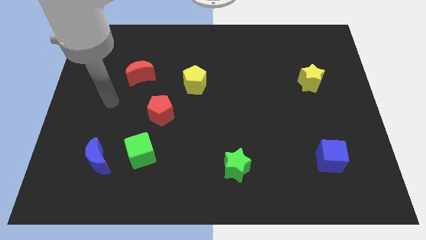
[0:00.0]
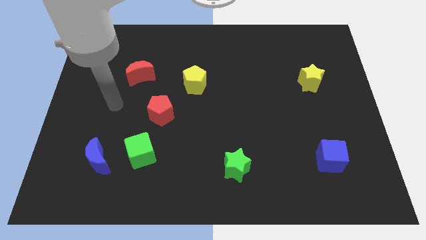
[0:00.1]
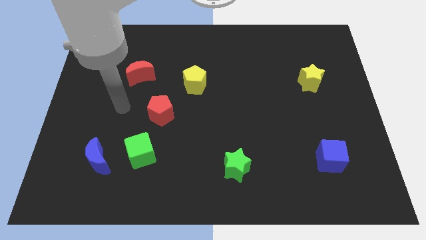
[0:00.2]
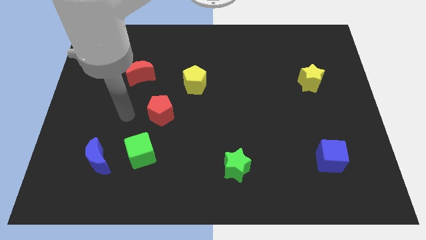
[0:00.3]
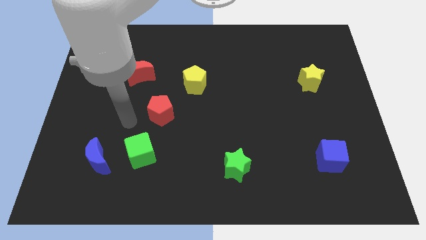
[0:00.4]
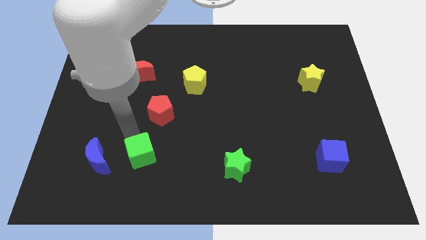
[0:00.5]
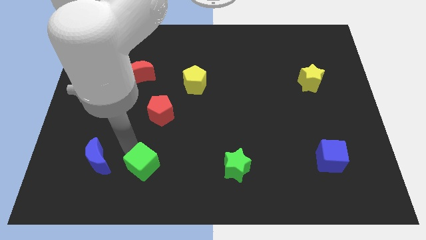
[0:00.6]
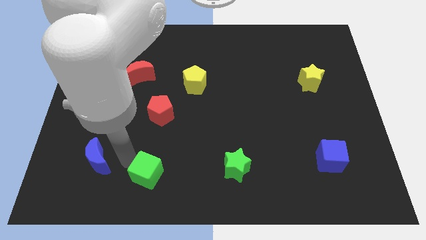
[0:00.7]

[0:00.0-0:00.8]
pull the blue moon apart from the green cube

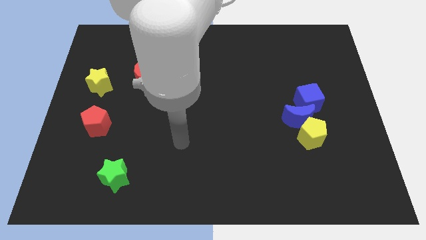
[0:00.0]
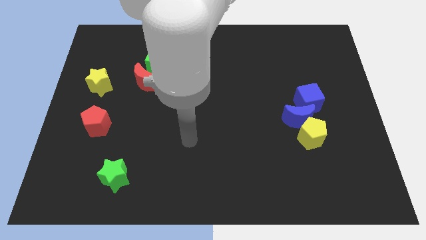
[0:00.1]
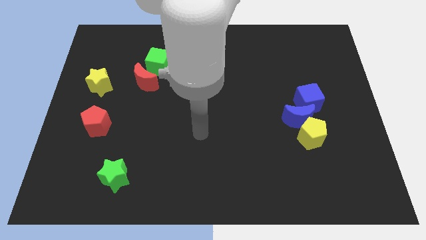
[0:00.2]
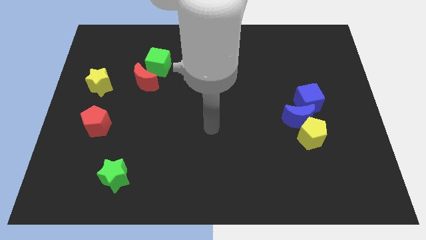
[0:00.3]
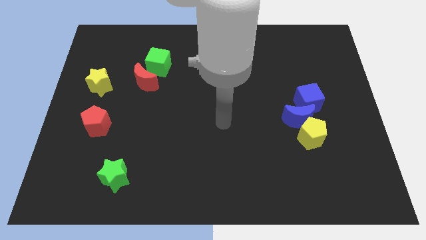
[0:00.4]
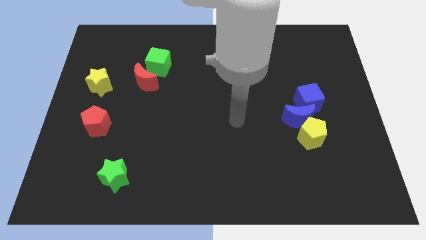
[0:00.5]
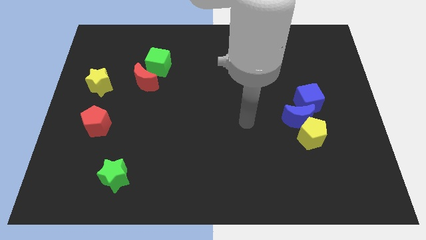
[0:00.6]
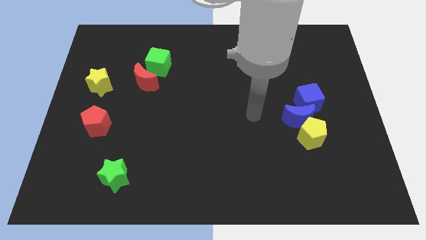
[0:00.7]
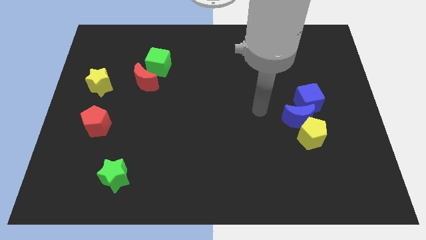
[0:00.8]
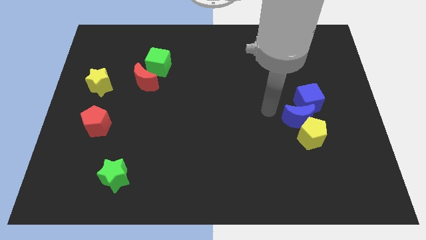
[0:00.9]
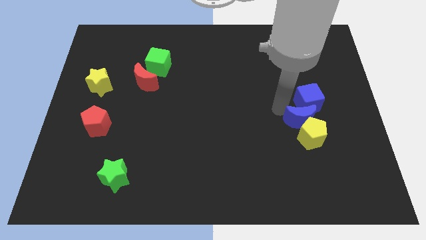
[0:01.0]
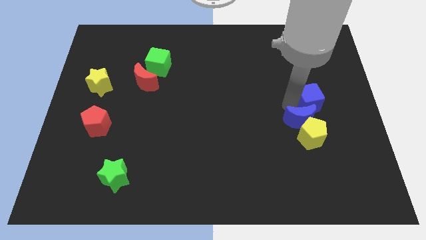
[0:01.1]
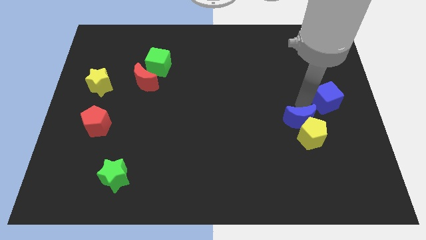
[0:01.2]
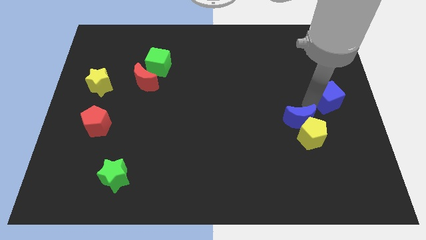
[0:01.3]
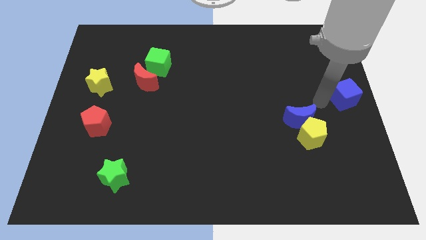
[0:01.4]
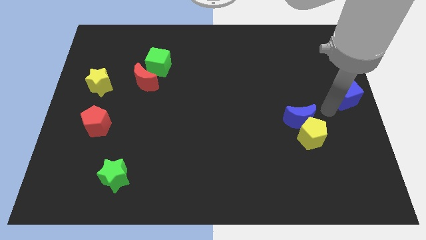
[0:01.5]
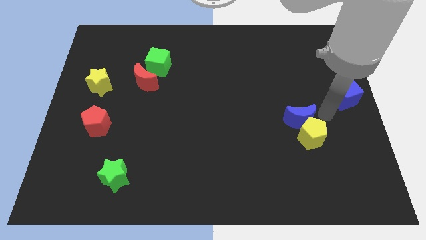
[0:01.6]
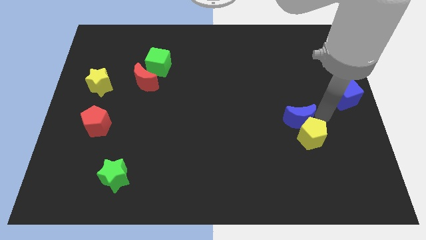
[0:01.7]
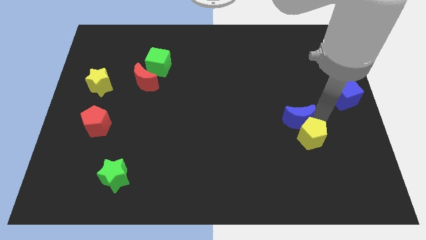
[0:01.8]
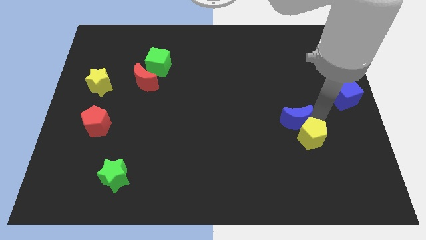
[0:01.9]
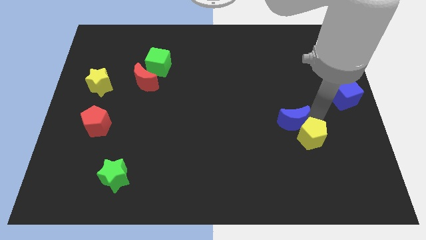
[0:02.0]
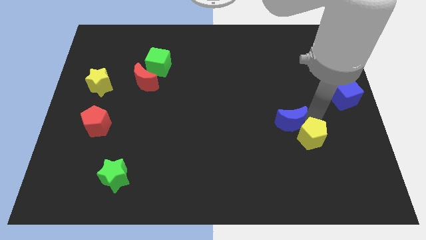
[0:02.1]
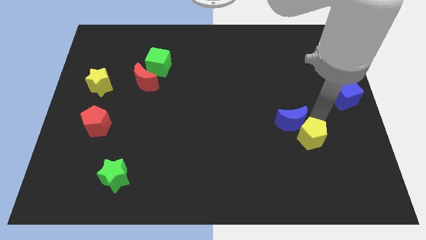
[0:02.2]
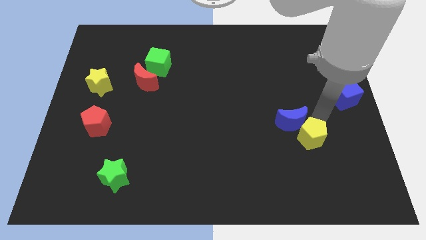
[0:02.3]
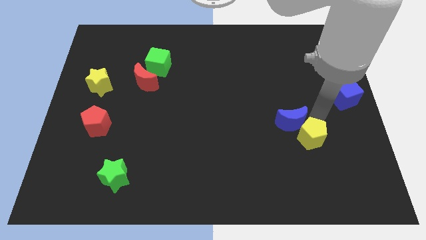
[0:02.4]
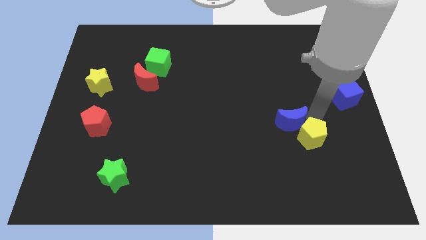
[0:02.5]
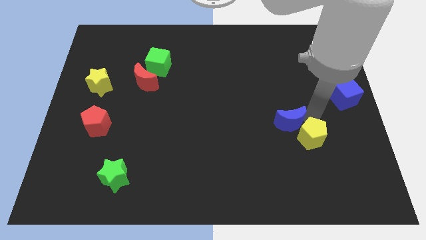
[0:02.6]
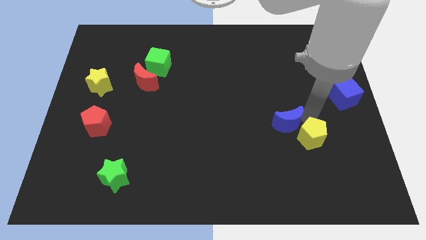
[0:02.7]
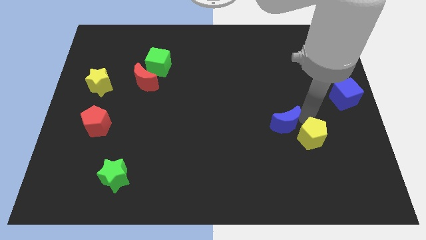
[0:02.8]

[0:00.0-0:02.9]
move the blue moon away from the yellow pentagon and blue cube

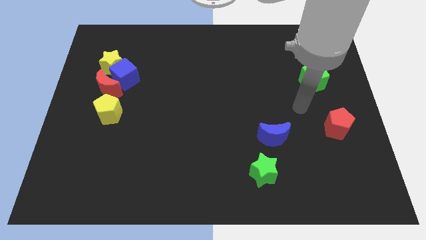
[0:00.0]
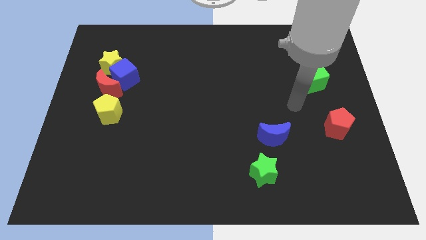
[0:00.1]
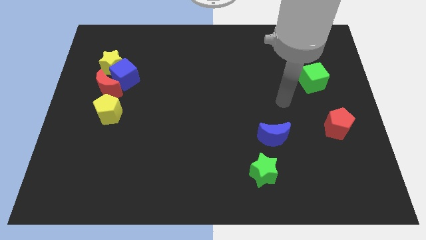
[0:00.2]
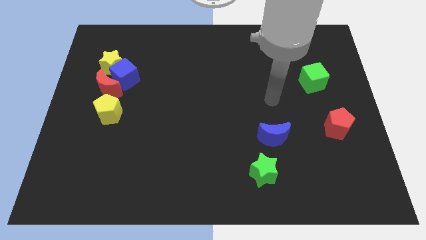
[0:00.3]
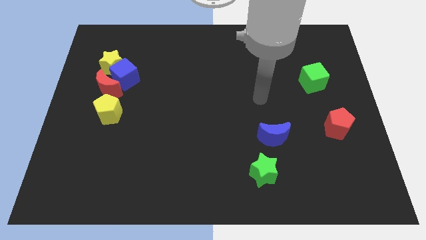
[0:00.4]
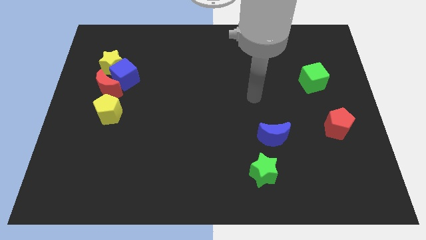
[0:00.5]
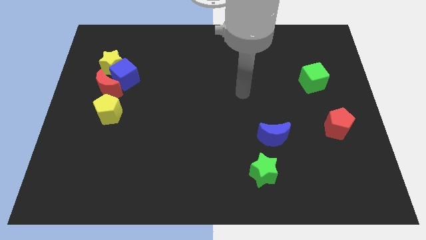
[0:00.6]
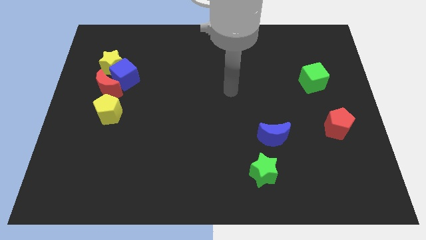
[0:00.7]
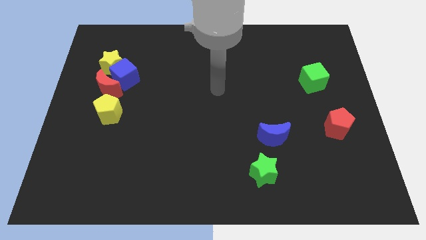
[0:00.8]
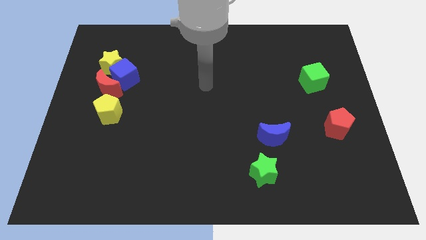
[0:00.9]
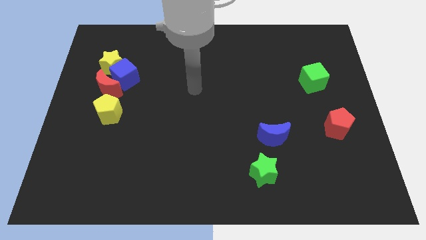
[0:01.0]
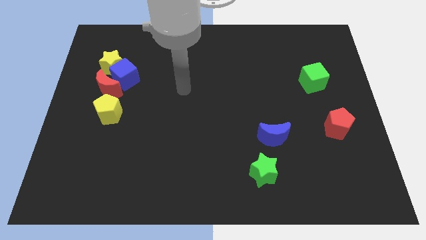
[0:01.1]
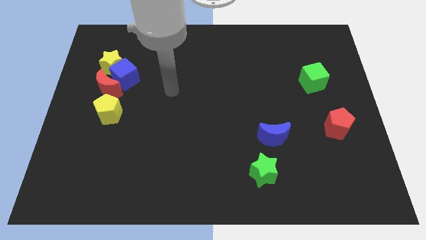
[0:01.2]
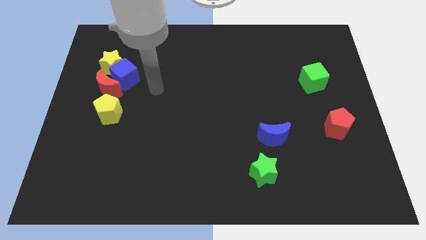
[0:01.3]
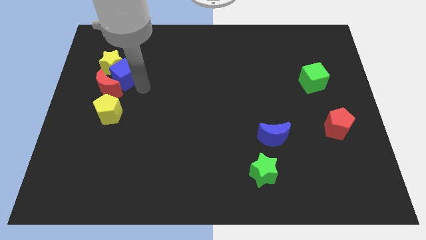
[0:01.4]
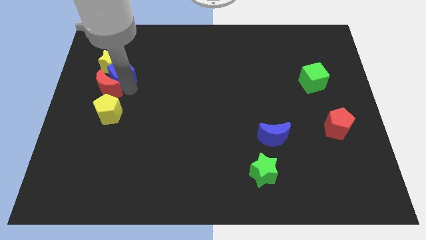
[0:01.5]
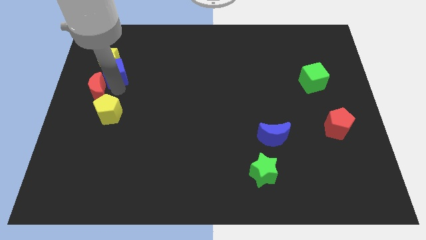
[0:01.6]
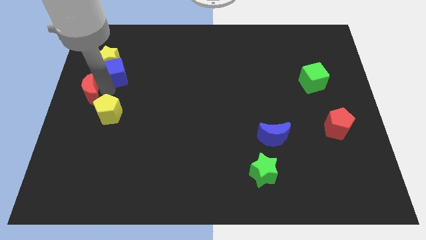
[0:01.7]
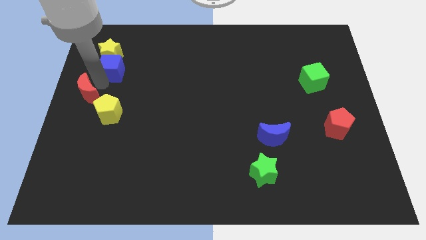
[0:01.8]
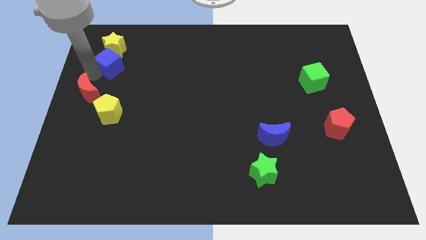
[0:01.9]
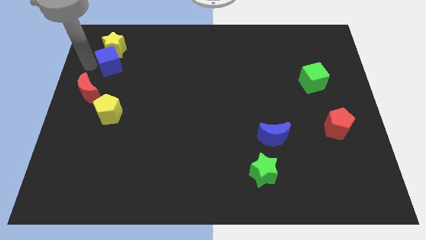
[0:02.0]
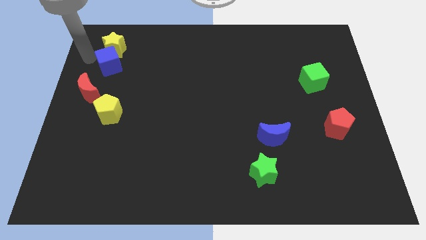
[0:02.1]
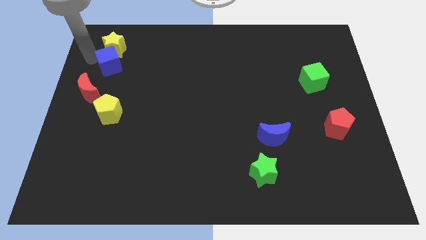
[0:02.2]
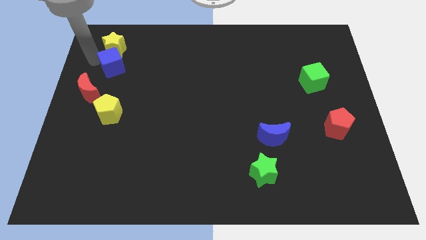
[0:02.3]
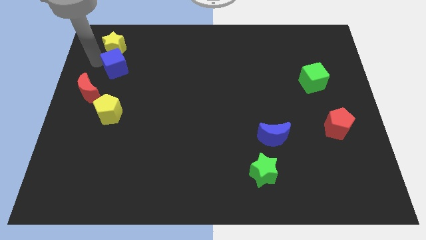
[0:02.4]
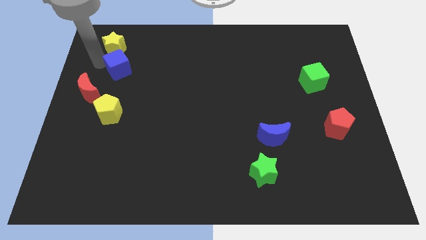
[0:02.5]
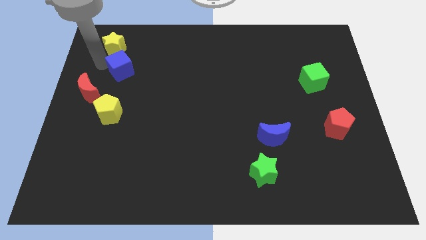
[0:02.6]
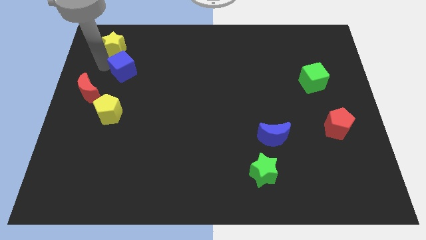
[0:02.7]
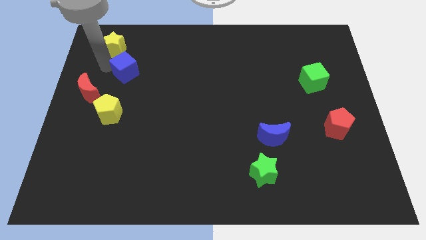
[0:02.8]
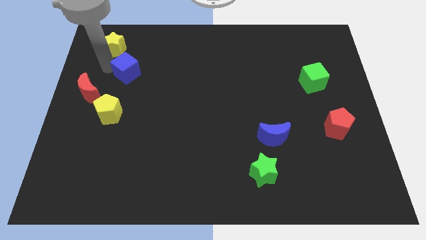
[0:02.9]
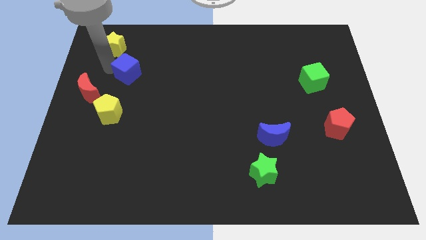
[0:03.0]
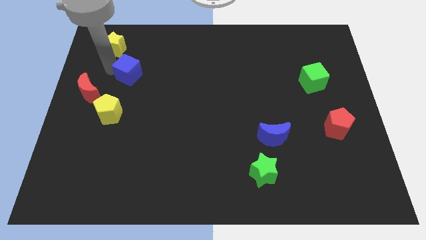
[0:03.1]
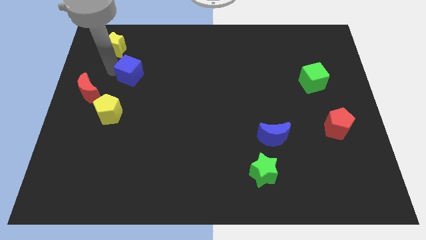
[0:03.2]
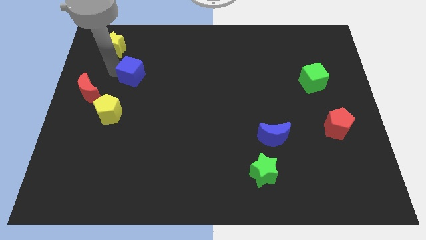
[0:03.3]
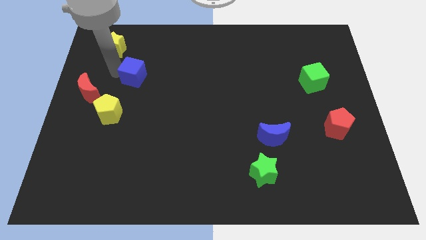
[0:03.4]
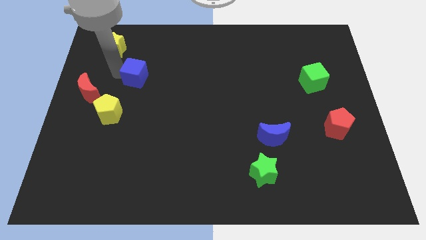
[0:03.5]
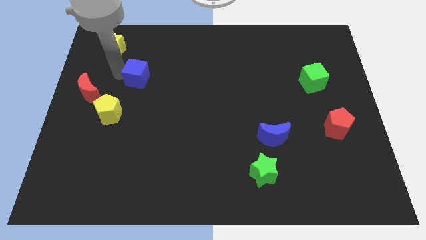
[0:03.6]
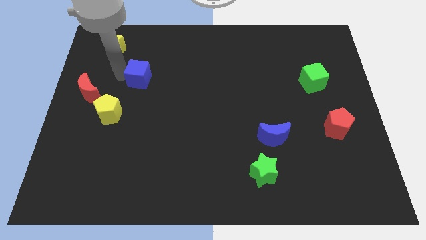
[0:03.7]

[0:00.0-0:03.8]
separate the blue cube from the yellow star and red moon

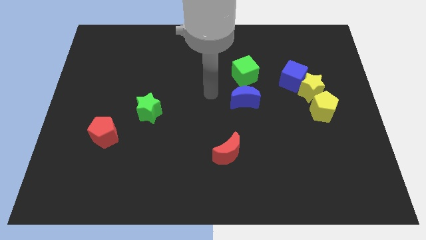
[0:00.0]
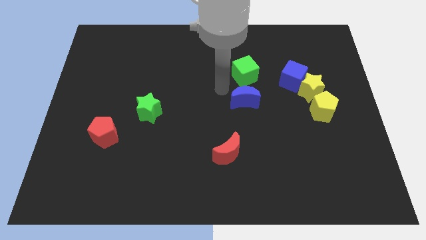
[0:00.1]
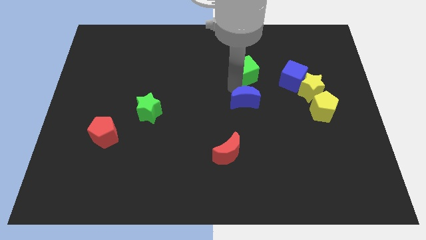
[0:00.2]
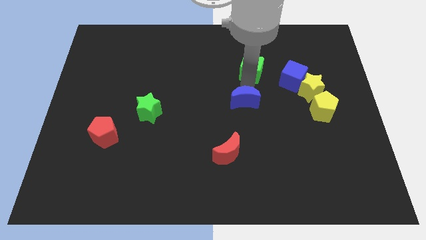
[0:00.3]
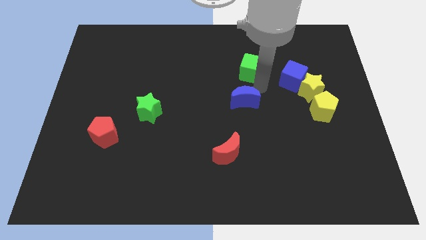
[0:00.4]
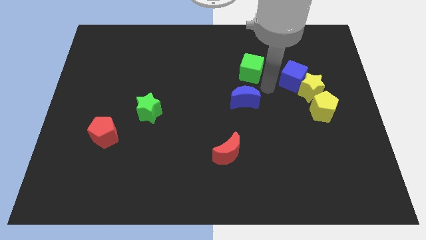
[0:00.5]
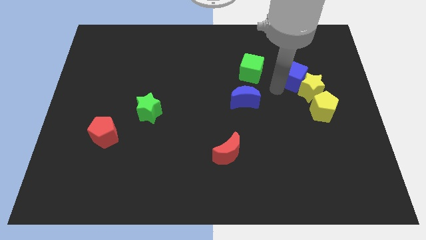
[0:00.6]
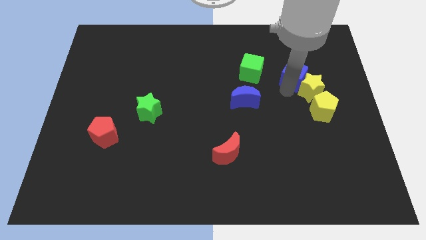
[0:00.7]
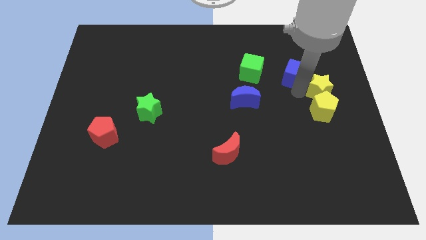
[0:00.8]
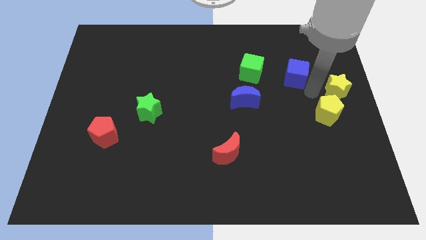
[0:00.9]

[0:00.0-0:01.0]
move the blue cube away from the yellow star

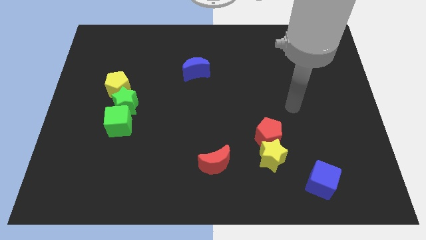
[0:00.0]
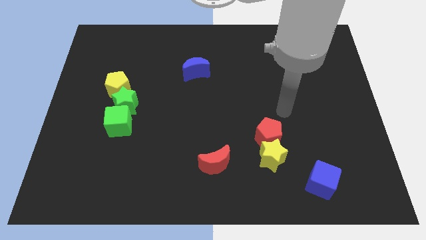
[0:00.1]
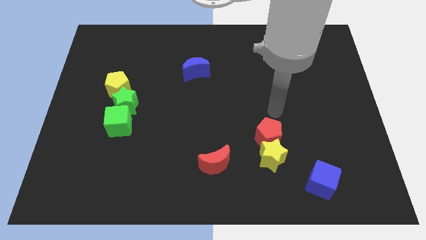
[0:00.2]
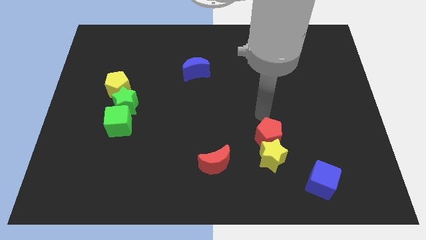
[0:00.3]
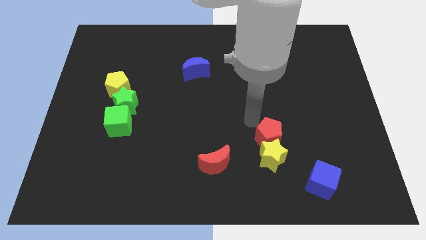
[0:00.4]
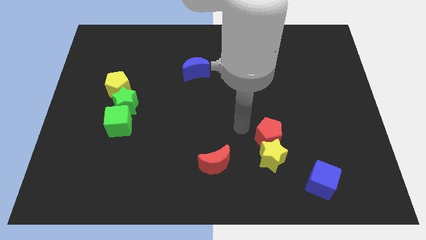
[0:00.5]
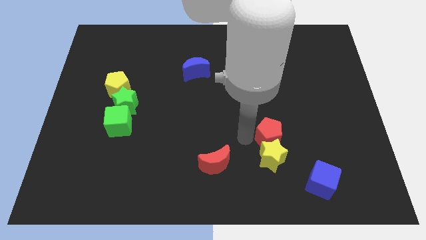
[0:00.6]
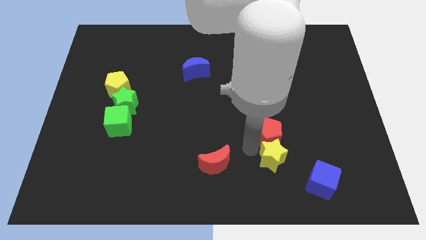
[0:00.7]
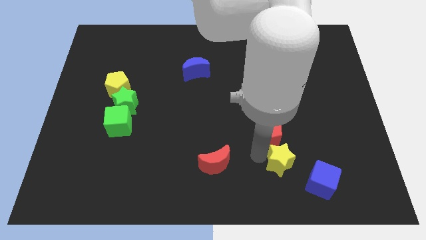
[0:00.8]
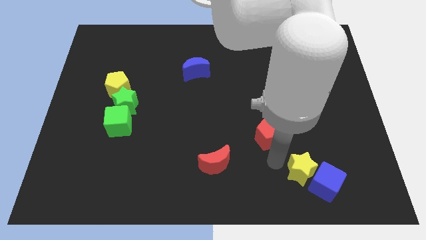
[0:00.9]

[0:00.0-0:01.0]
separate the red pentagon from the yellow star

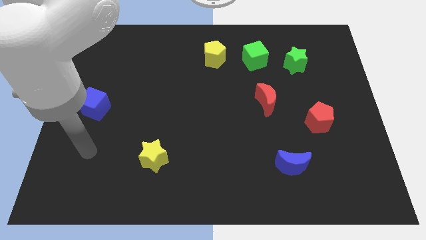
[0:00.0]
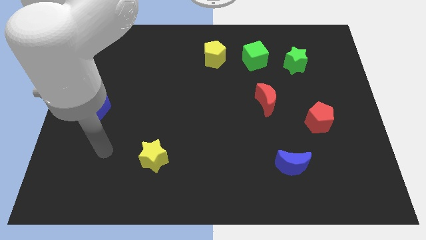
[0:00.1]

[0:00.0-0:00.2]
separate the green cube from the green star
